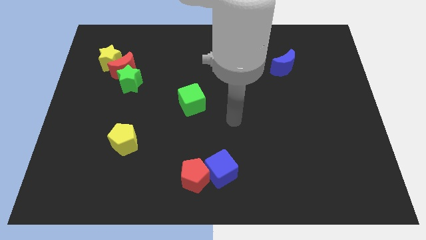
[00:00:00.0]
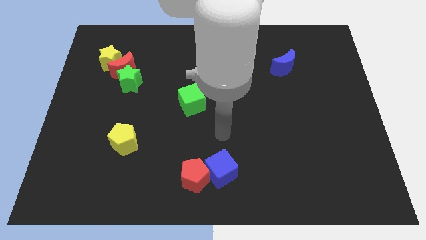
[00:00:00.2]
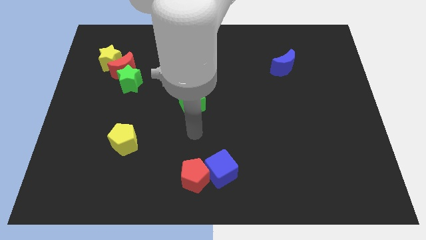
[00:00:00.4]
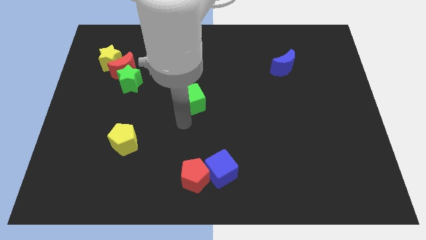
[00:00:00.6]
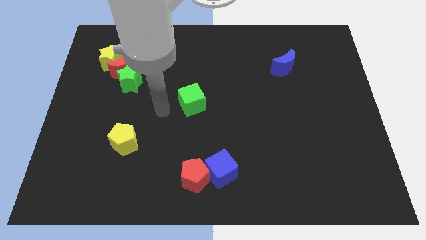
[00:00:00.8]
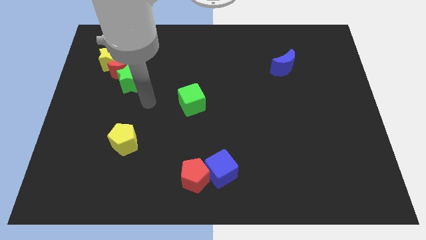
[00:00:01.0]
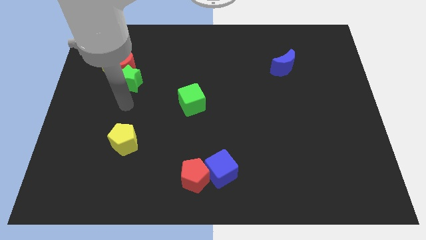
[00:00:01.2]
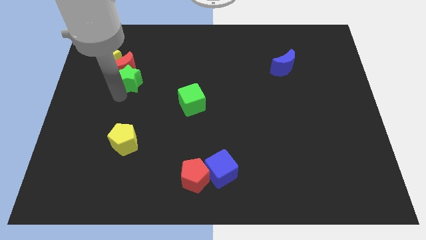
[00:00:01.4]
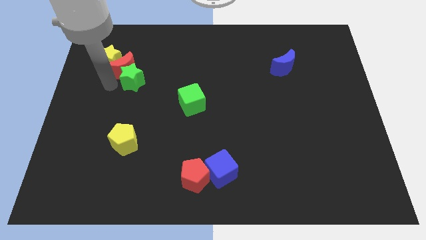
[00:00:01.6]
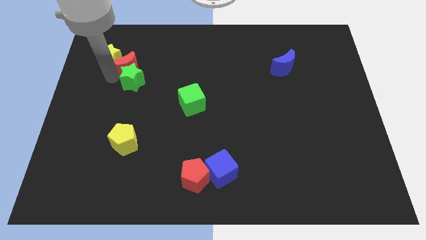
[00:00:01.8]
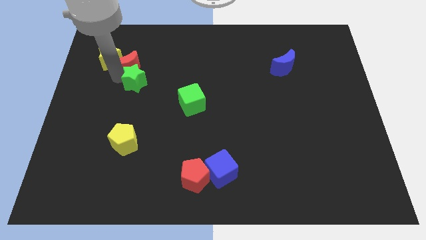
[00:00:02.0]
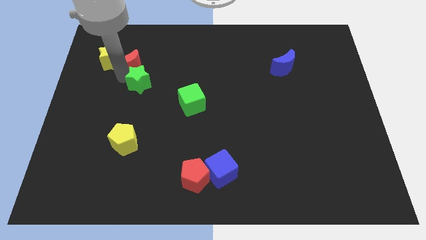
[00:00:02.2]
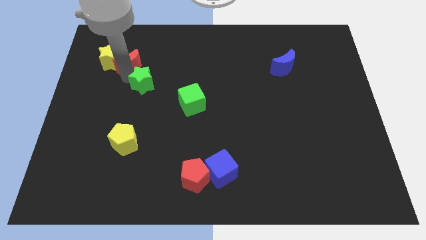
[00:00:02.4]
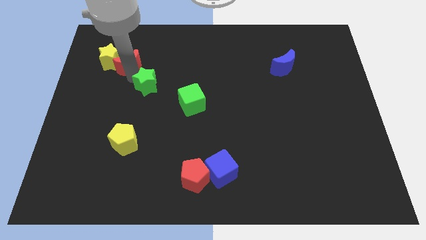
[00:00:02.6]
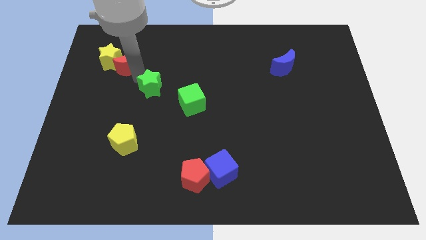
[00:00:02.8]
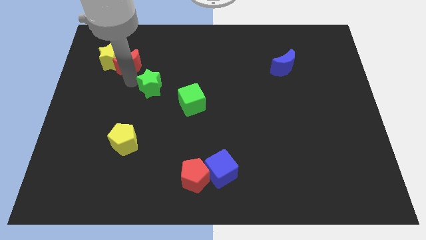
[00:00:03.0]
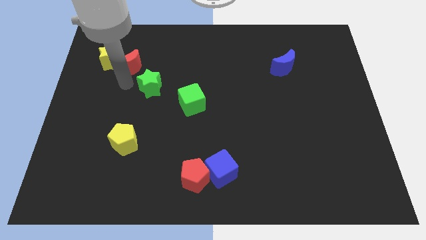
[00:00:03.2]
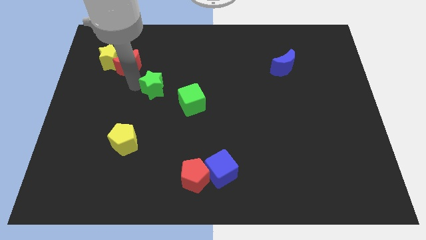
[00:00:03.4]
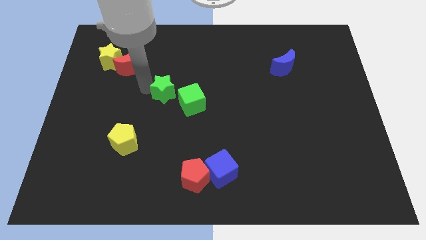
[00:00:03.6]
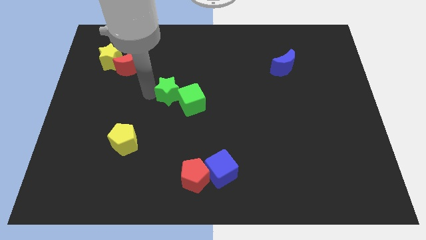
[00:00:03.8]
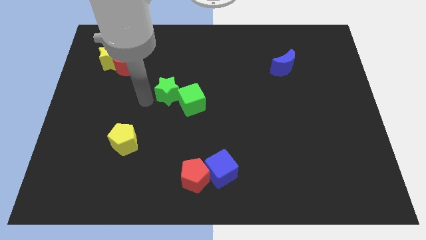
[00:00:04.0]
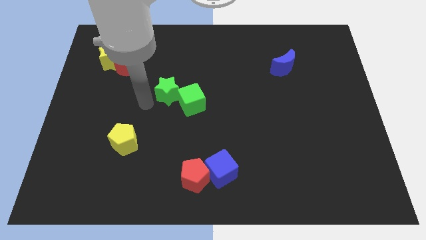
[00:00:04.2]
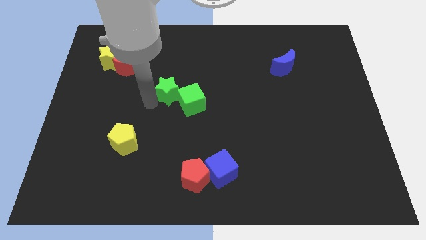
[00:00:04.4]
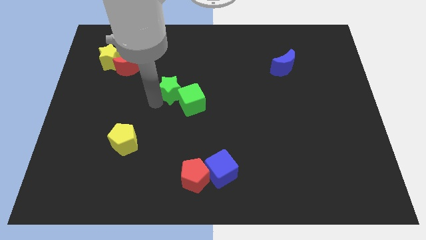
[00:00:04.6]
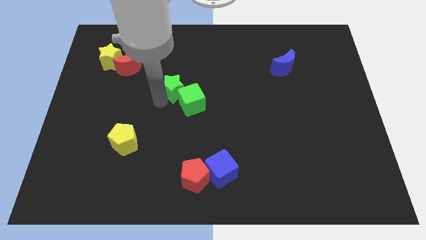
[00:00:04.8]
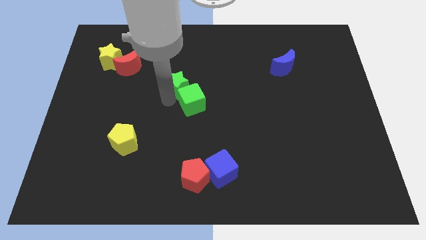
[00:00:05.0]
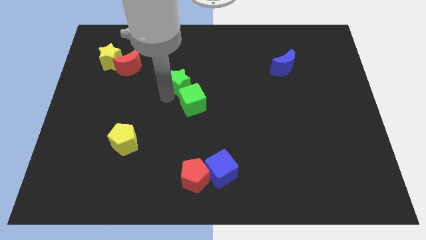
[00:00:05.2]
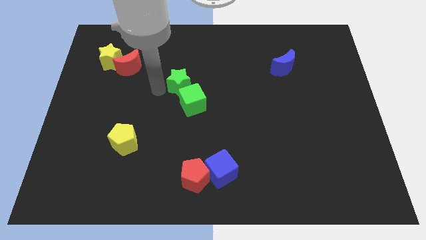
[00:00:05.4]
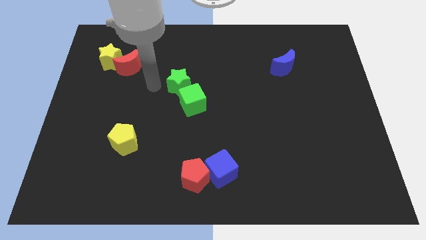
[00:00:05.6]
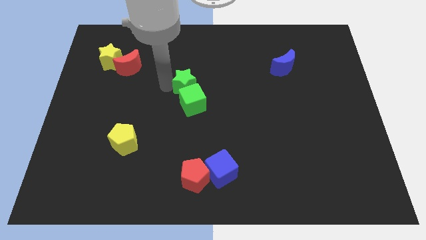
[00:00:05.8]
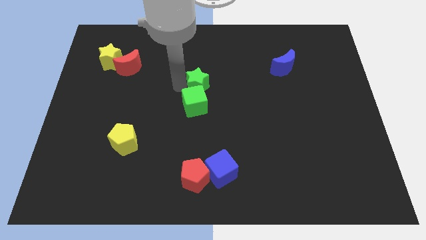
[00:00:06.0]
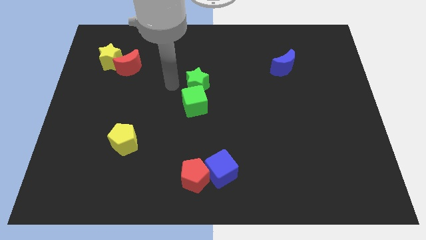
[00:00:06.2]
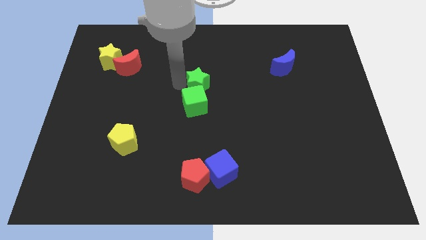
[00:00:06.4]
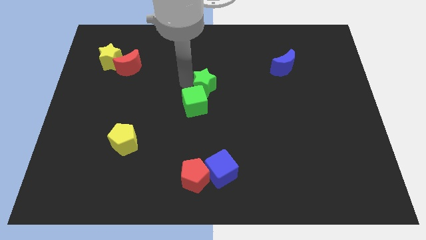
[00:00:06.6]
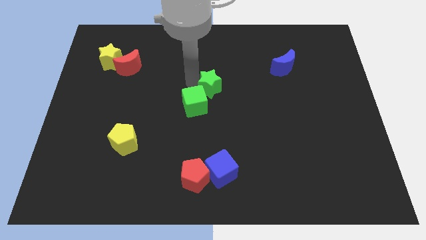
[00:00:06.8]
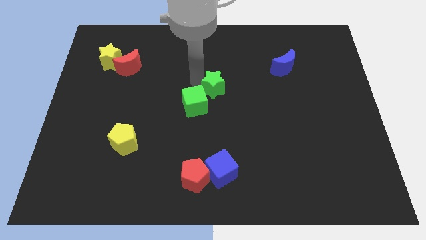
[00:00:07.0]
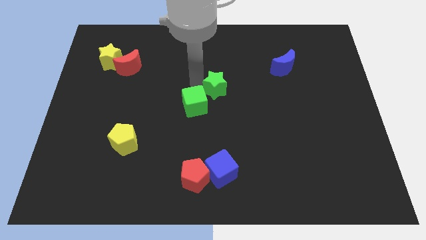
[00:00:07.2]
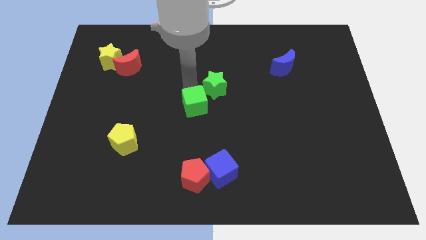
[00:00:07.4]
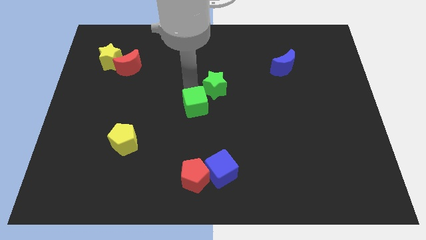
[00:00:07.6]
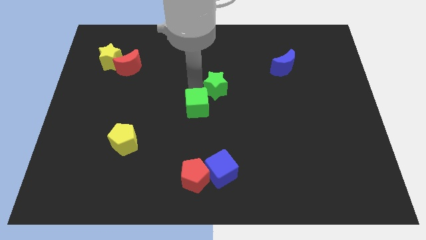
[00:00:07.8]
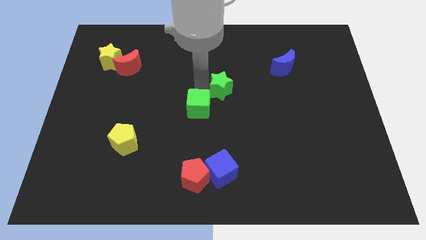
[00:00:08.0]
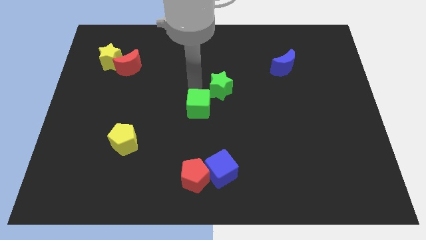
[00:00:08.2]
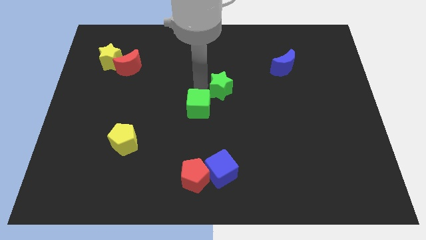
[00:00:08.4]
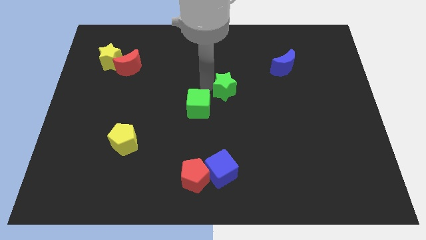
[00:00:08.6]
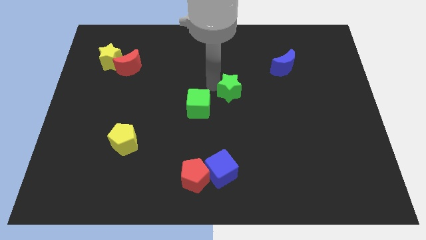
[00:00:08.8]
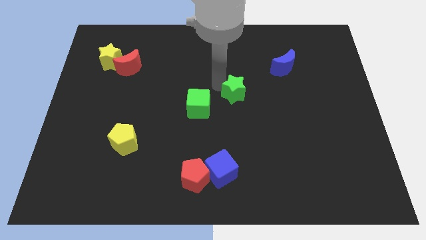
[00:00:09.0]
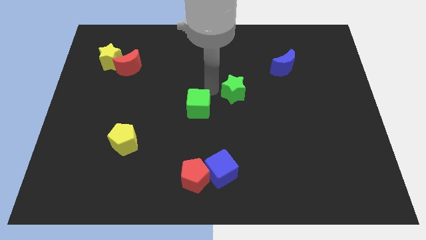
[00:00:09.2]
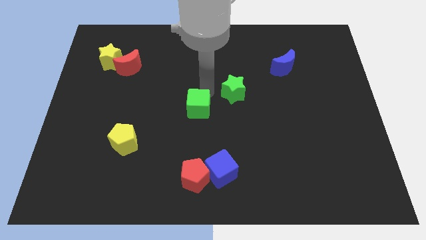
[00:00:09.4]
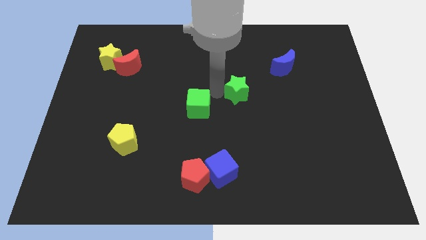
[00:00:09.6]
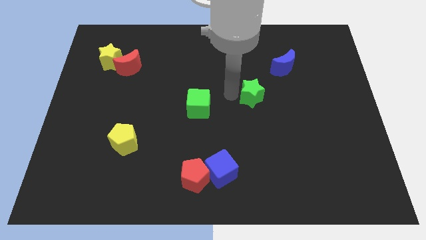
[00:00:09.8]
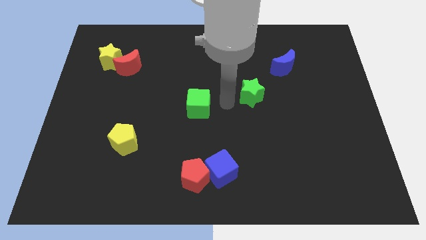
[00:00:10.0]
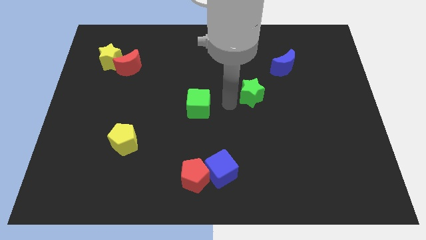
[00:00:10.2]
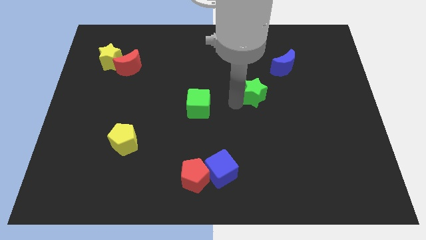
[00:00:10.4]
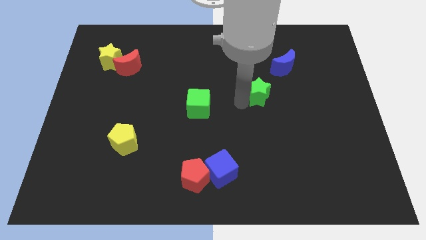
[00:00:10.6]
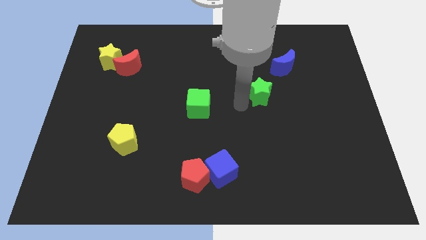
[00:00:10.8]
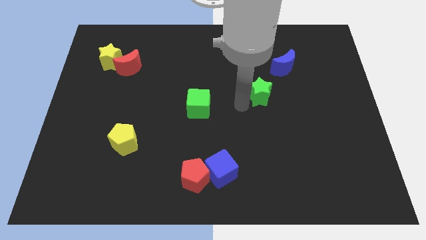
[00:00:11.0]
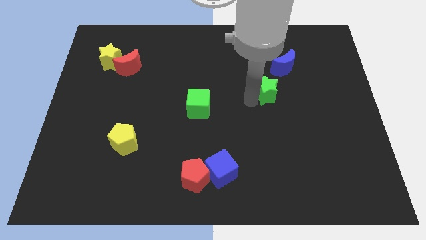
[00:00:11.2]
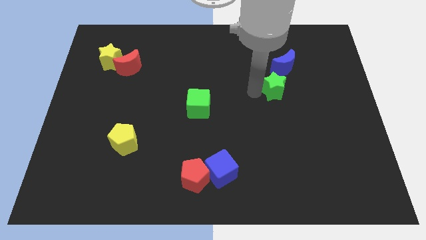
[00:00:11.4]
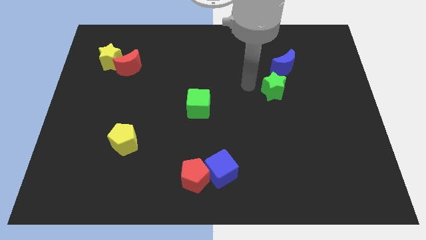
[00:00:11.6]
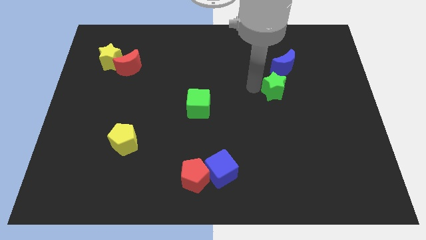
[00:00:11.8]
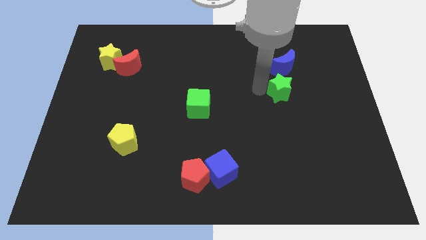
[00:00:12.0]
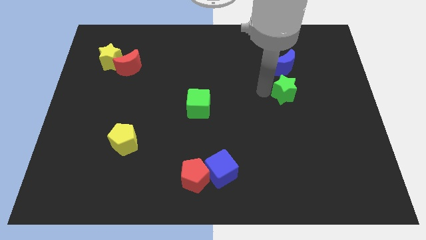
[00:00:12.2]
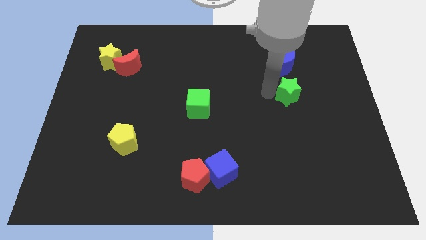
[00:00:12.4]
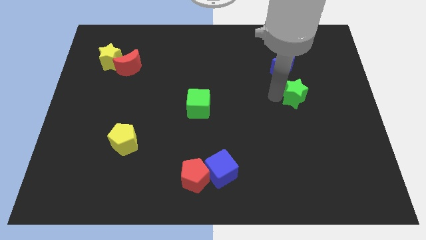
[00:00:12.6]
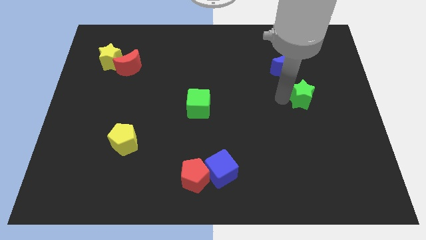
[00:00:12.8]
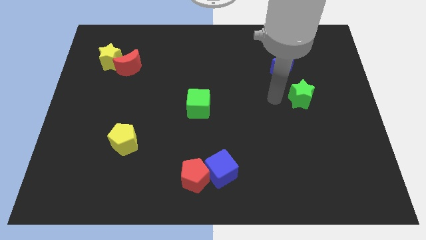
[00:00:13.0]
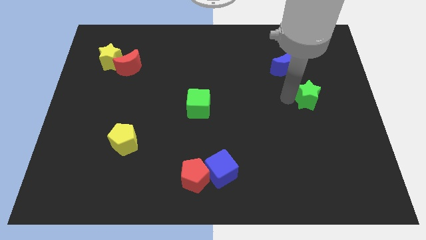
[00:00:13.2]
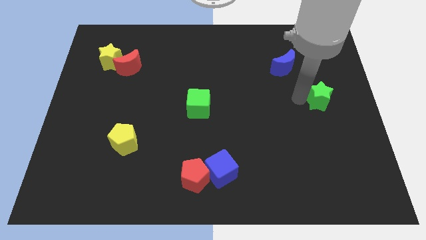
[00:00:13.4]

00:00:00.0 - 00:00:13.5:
slide the green star to the right side of the board

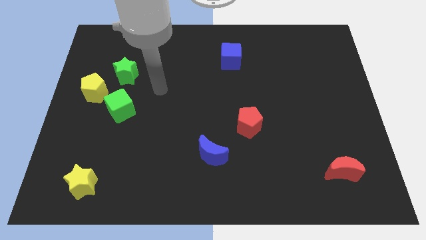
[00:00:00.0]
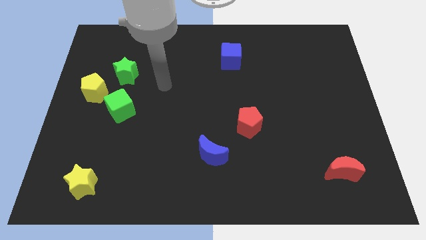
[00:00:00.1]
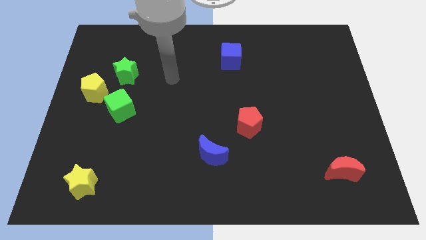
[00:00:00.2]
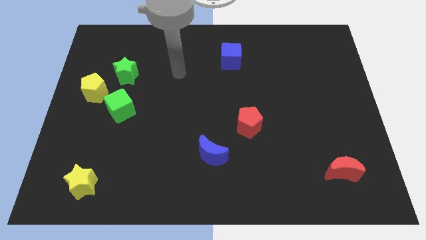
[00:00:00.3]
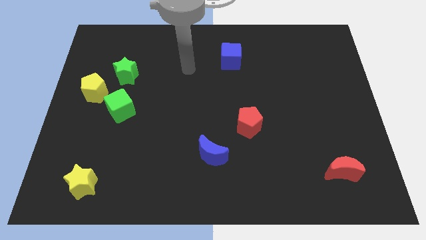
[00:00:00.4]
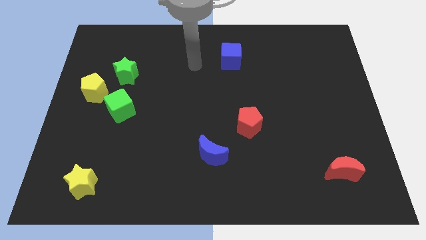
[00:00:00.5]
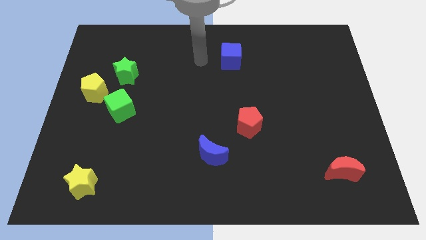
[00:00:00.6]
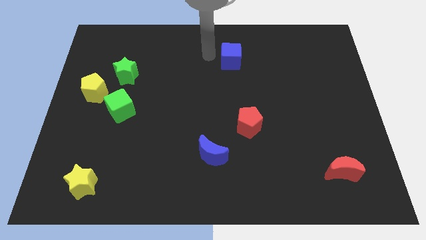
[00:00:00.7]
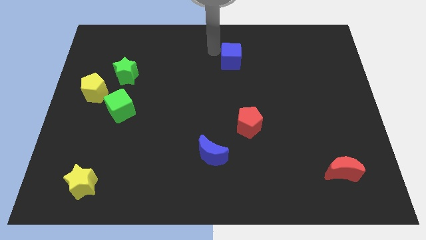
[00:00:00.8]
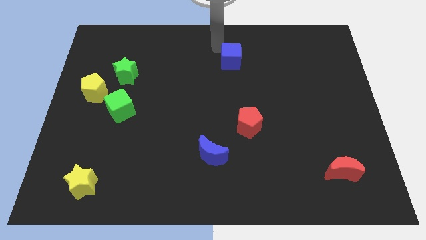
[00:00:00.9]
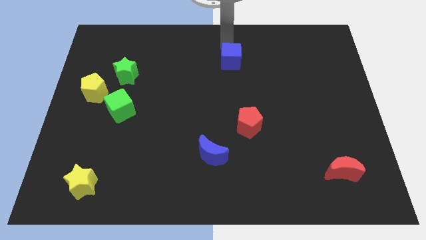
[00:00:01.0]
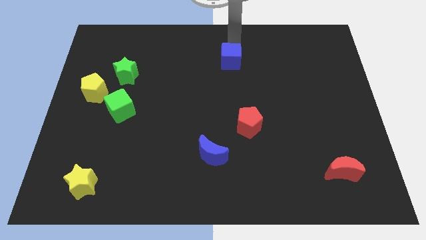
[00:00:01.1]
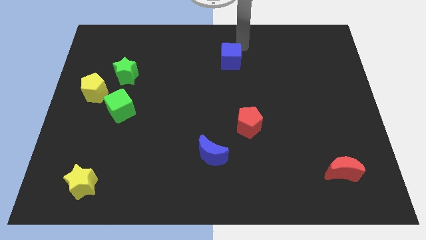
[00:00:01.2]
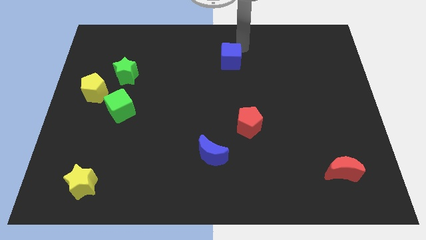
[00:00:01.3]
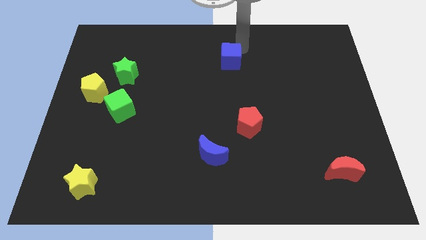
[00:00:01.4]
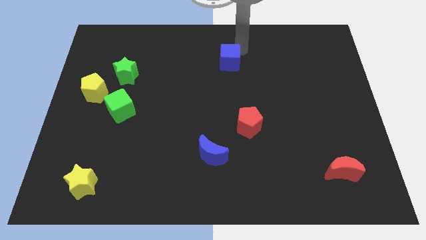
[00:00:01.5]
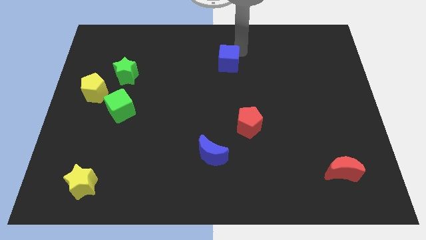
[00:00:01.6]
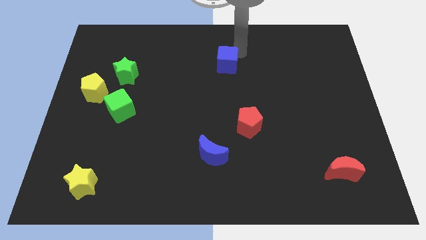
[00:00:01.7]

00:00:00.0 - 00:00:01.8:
put the blue cube to the center
